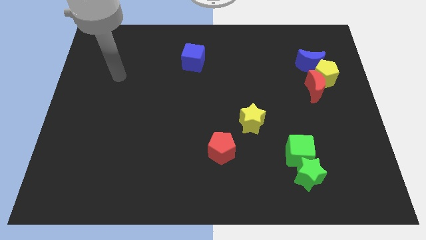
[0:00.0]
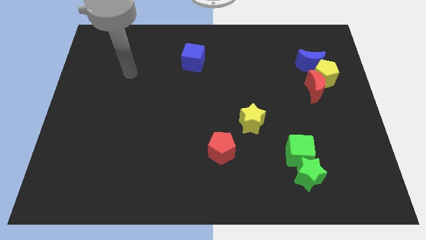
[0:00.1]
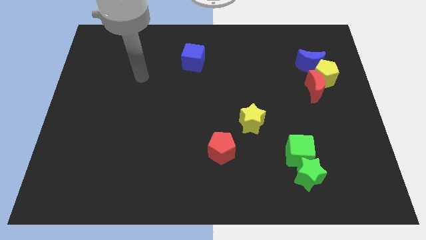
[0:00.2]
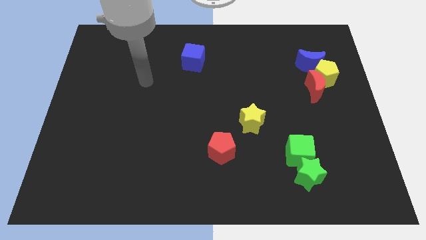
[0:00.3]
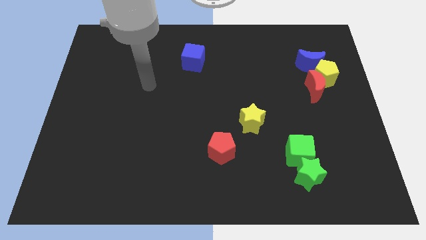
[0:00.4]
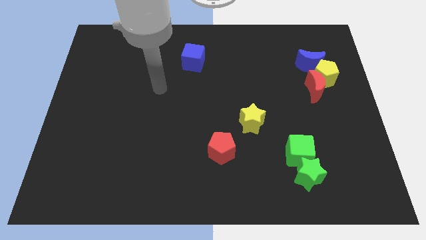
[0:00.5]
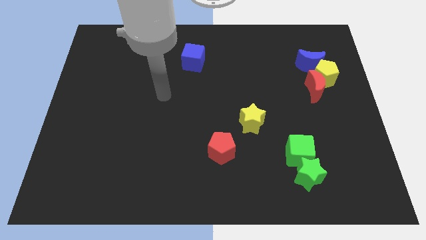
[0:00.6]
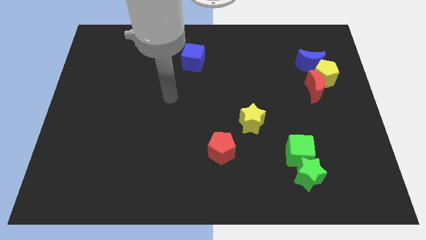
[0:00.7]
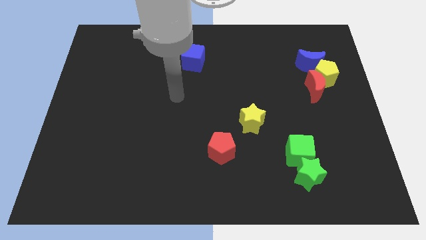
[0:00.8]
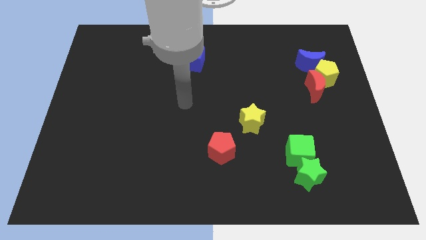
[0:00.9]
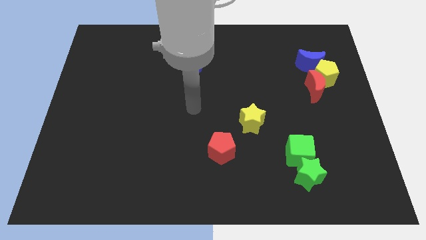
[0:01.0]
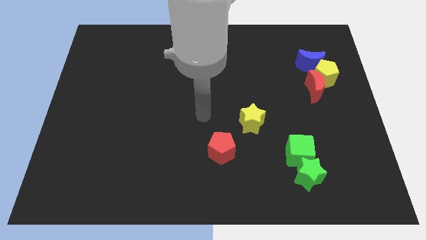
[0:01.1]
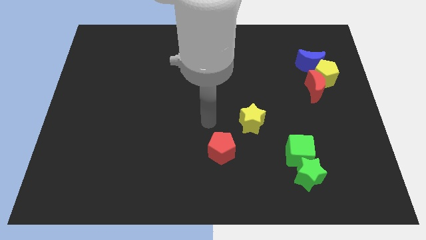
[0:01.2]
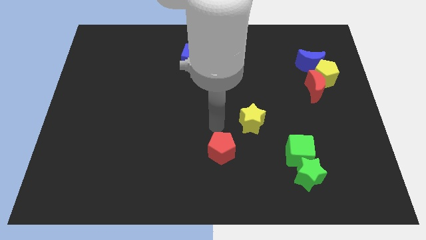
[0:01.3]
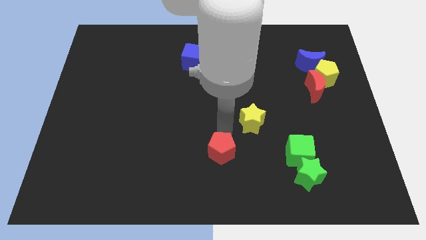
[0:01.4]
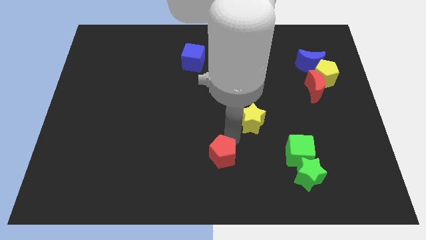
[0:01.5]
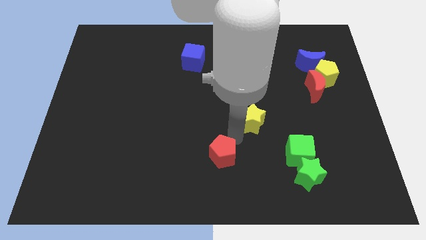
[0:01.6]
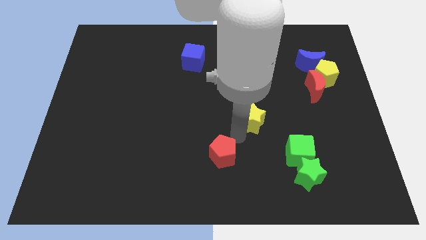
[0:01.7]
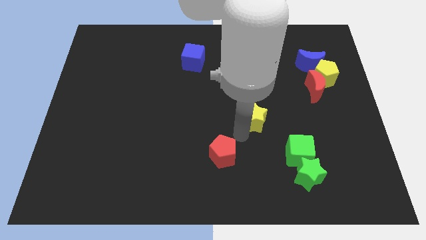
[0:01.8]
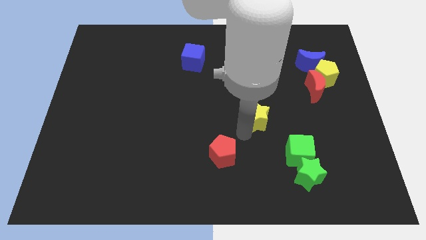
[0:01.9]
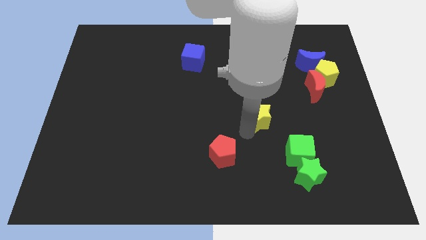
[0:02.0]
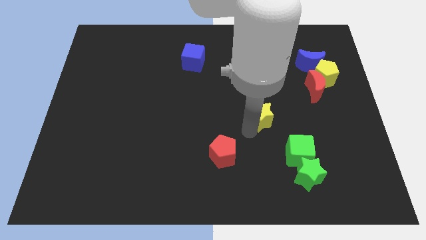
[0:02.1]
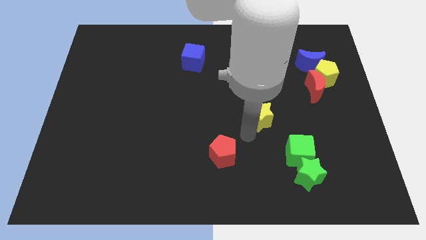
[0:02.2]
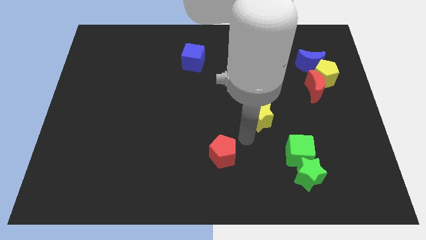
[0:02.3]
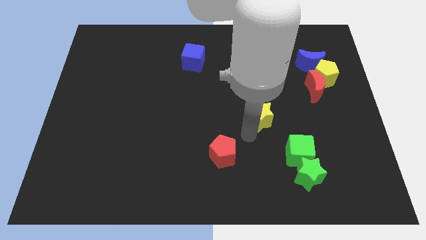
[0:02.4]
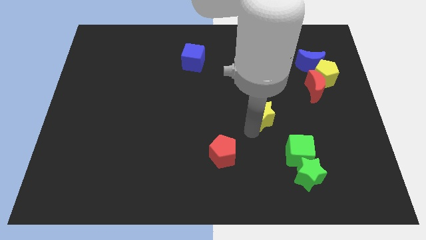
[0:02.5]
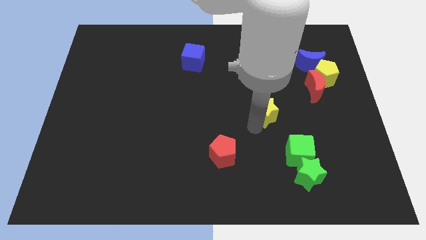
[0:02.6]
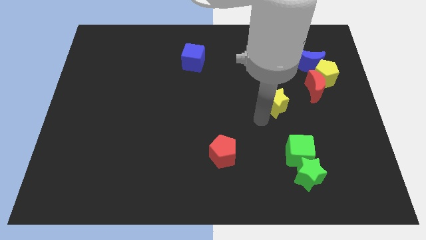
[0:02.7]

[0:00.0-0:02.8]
slightly move the yellow star diagonally up and right

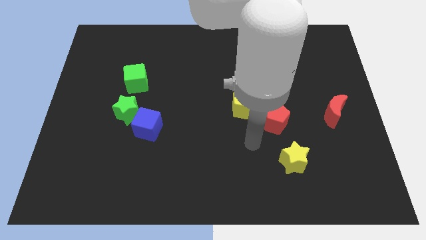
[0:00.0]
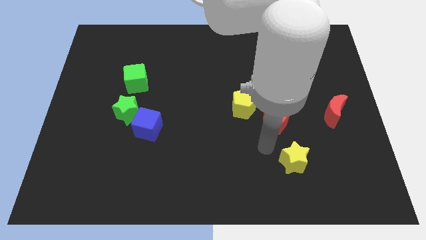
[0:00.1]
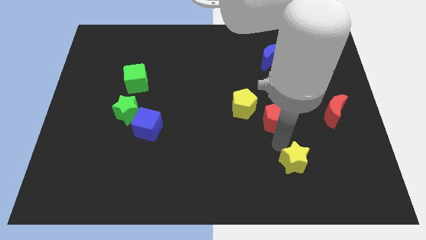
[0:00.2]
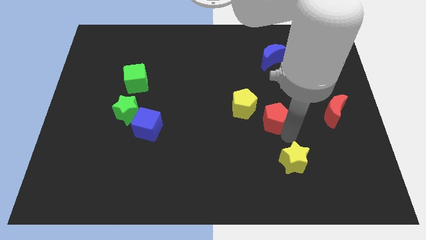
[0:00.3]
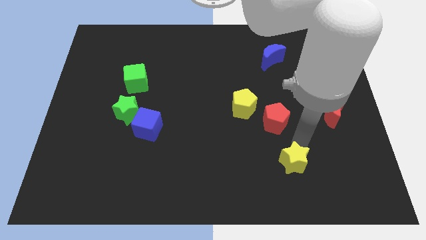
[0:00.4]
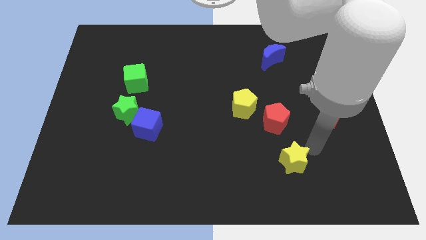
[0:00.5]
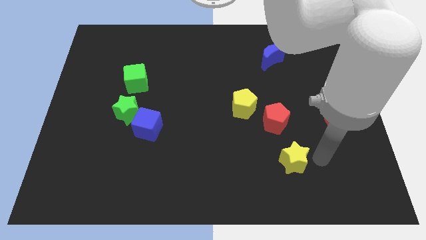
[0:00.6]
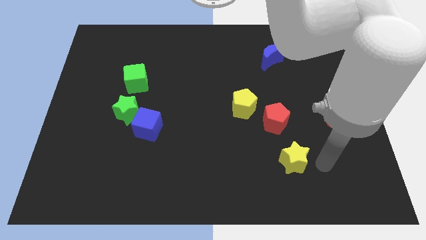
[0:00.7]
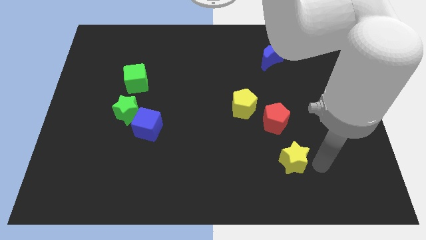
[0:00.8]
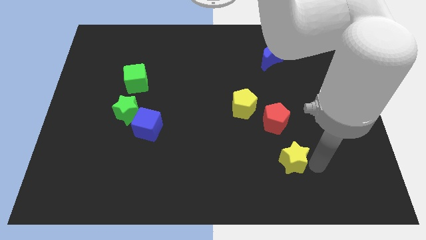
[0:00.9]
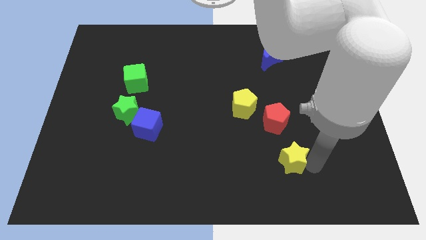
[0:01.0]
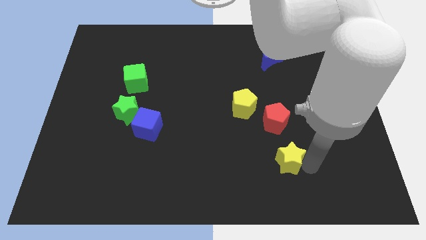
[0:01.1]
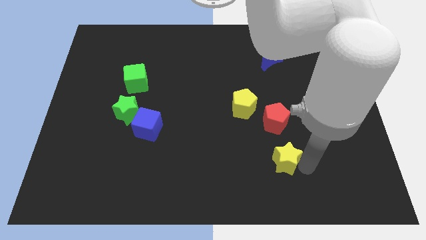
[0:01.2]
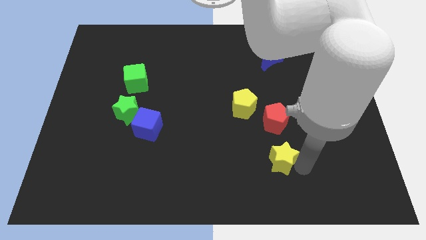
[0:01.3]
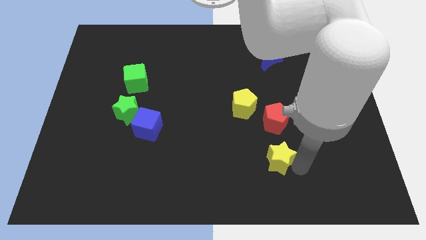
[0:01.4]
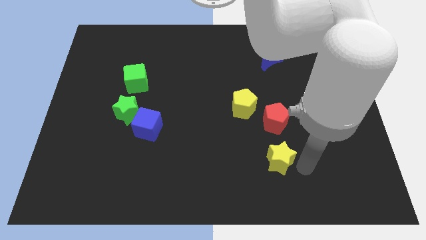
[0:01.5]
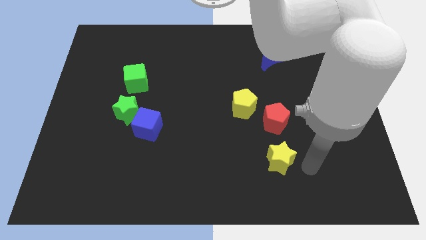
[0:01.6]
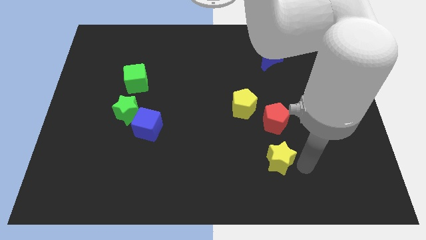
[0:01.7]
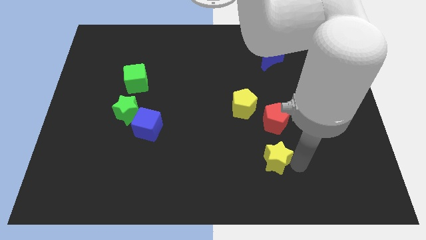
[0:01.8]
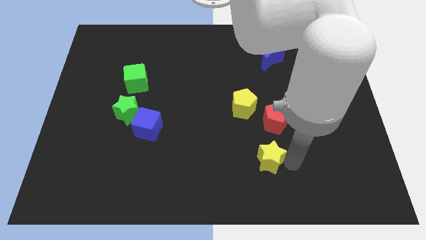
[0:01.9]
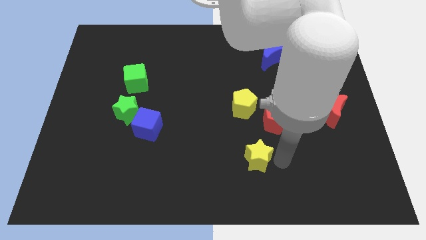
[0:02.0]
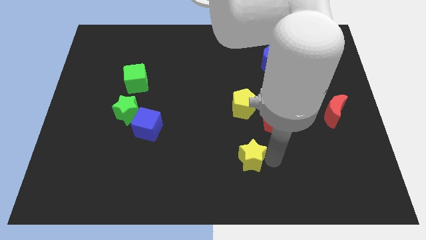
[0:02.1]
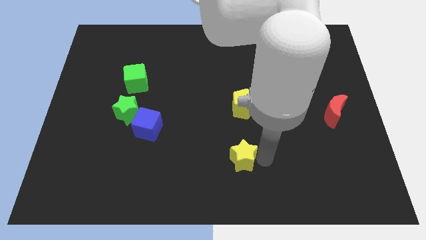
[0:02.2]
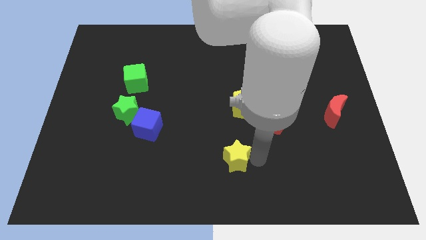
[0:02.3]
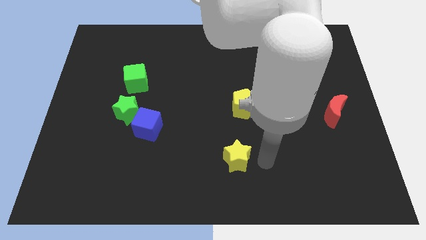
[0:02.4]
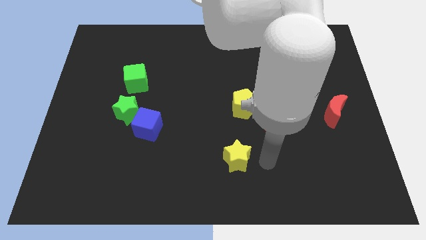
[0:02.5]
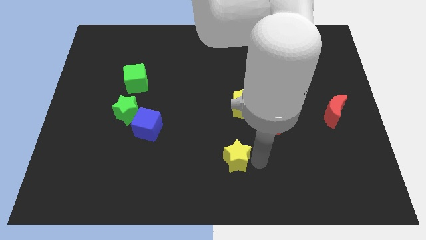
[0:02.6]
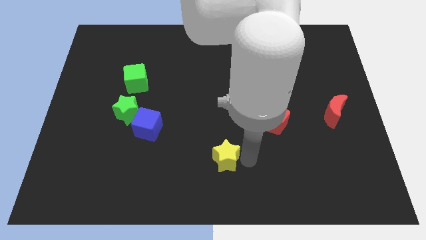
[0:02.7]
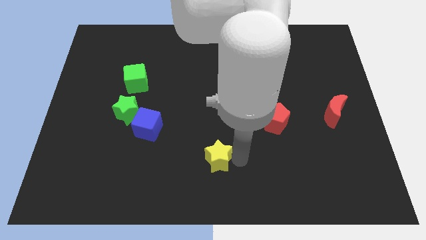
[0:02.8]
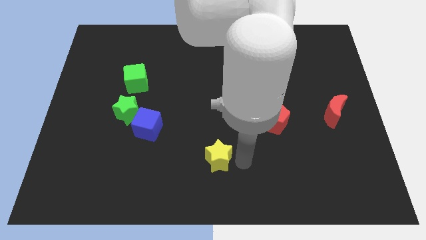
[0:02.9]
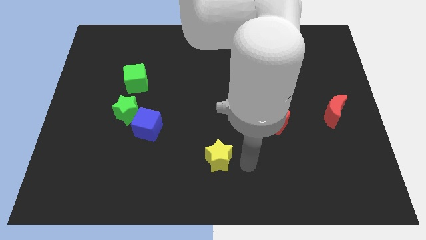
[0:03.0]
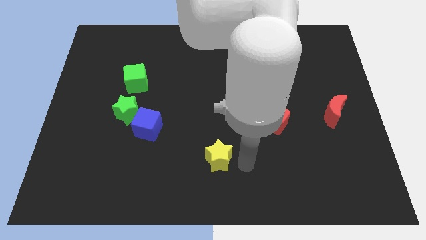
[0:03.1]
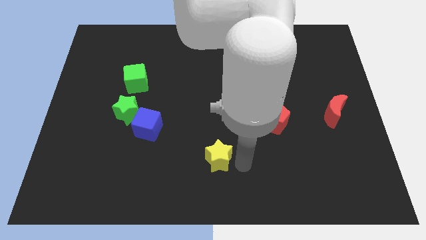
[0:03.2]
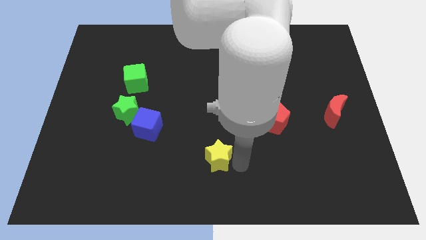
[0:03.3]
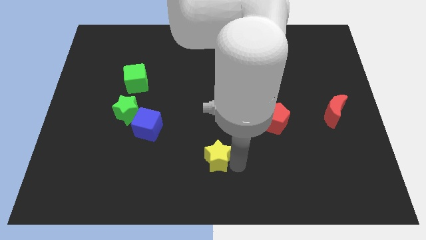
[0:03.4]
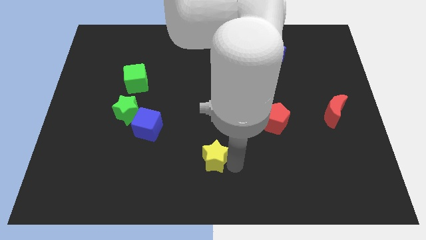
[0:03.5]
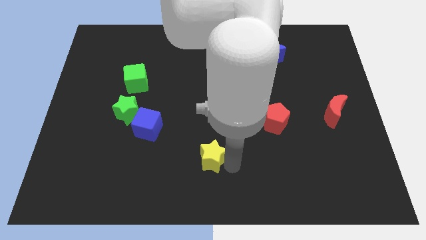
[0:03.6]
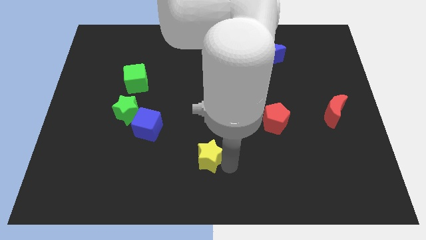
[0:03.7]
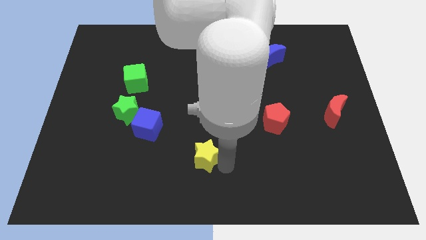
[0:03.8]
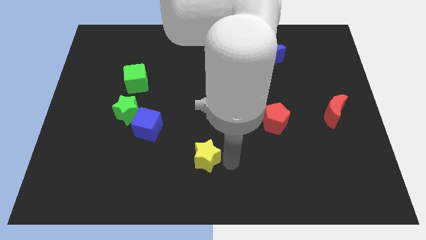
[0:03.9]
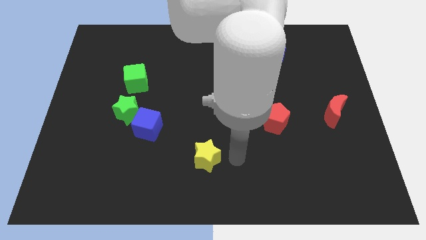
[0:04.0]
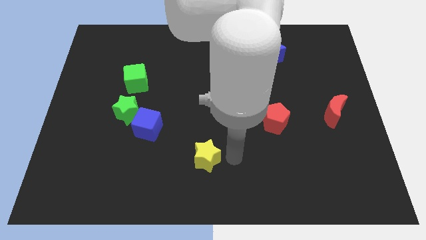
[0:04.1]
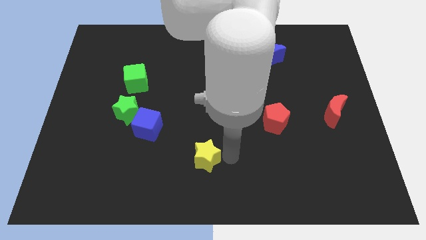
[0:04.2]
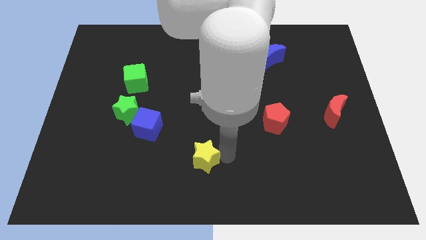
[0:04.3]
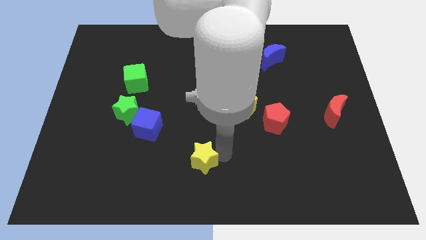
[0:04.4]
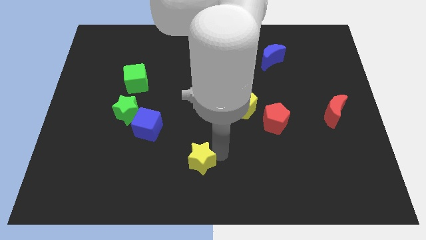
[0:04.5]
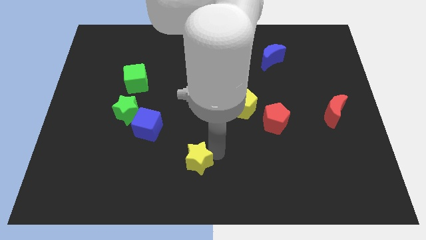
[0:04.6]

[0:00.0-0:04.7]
push the yellow star to the left

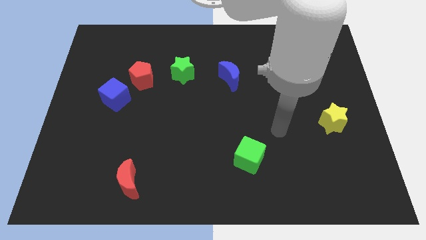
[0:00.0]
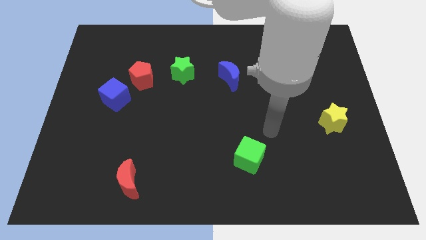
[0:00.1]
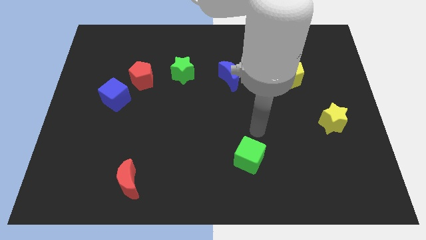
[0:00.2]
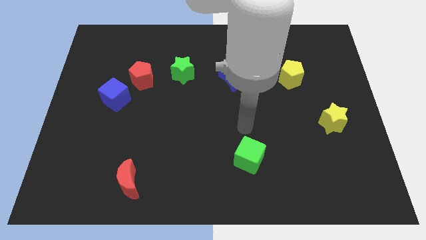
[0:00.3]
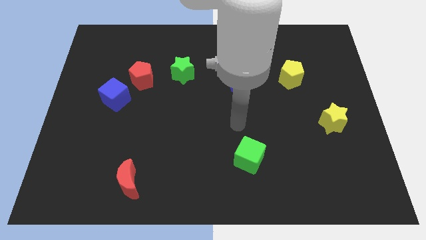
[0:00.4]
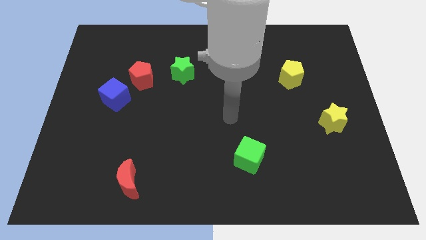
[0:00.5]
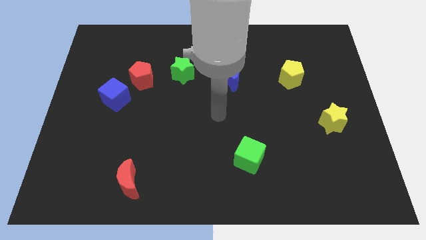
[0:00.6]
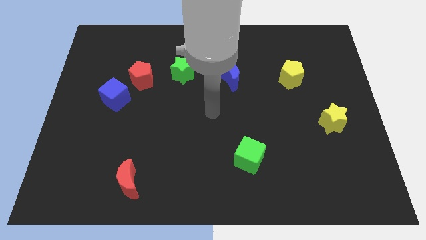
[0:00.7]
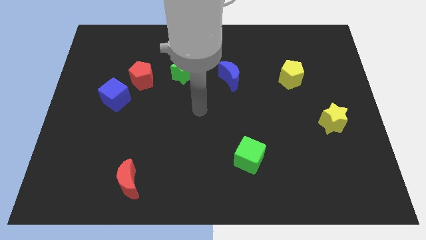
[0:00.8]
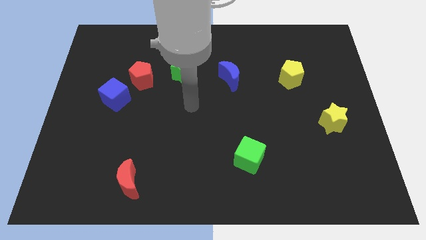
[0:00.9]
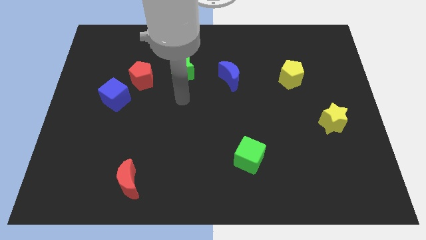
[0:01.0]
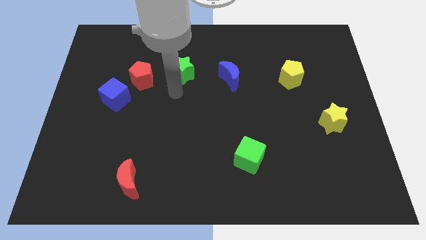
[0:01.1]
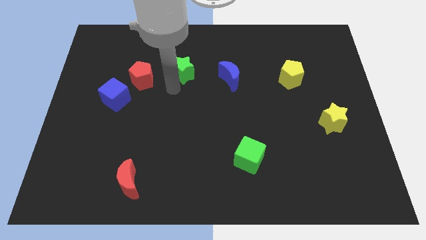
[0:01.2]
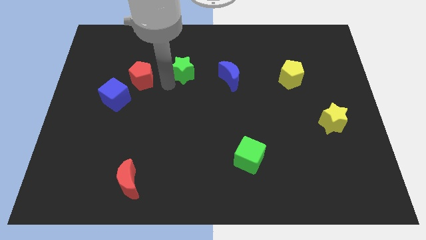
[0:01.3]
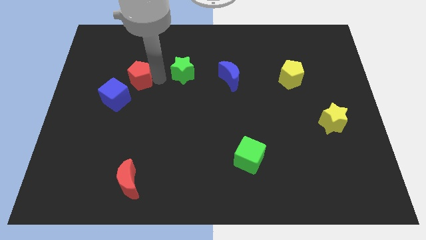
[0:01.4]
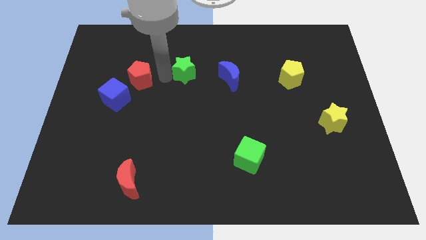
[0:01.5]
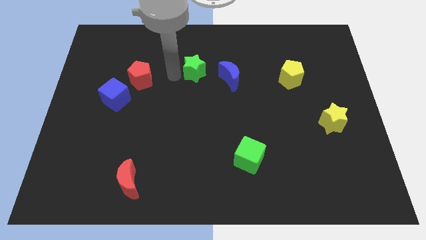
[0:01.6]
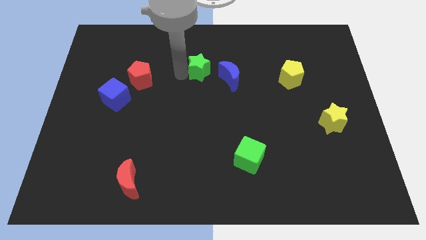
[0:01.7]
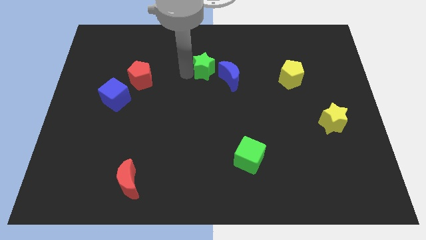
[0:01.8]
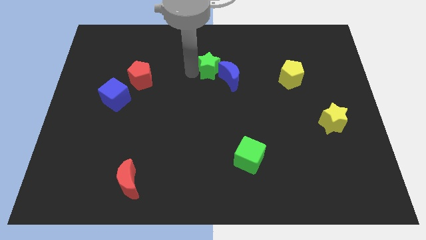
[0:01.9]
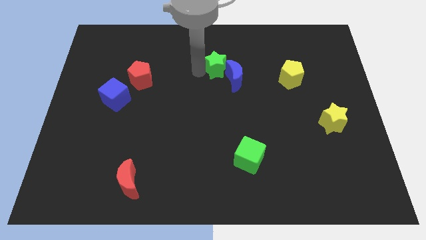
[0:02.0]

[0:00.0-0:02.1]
slightly slide the green star right
